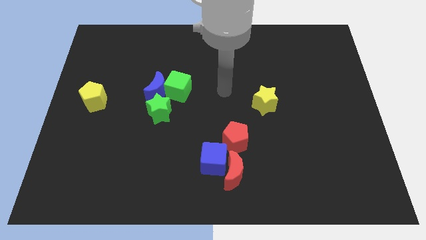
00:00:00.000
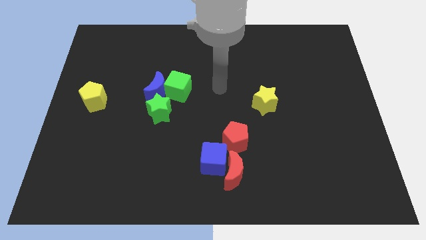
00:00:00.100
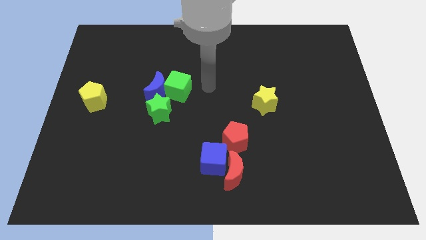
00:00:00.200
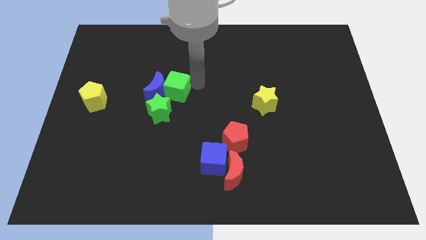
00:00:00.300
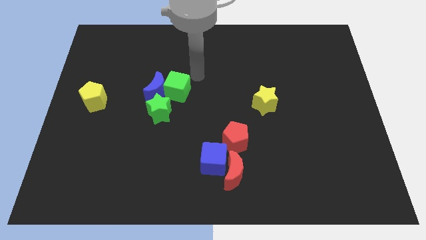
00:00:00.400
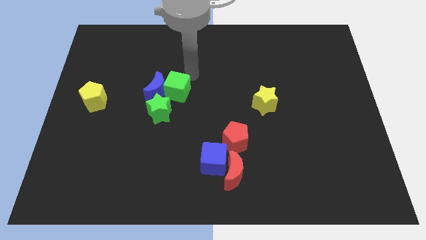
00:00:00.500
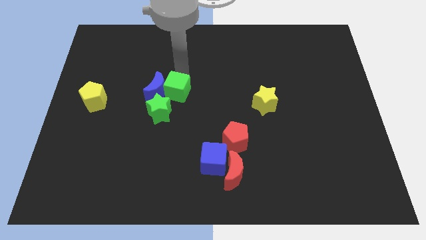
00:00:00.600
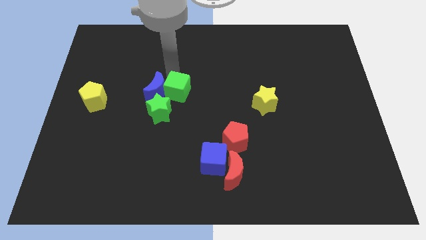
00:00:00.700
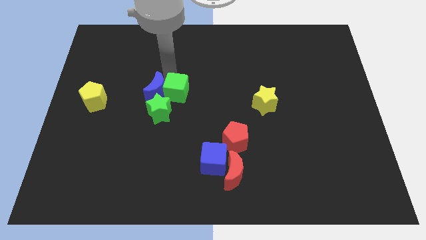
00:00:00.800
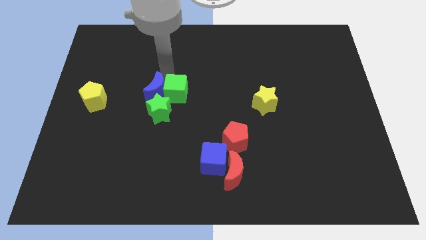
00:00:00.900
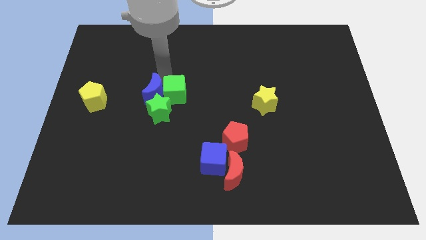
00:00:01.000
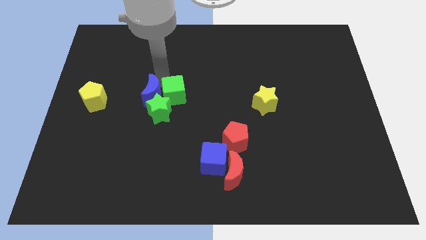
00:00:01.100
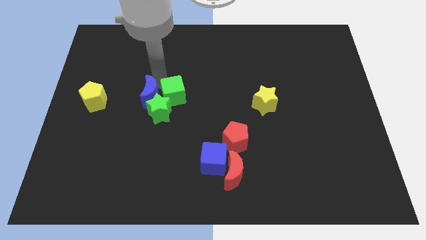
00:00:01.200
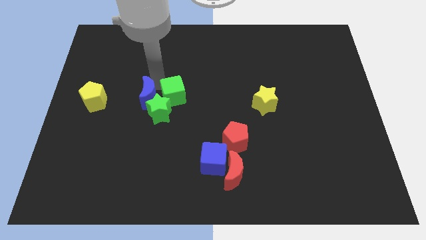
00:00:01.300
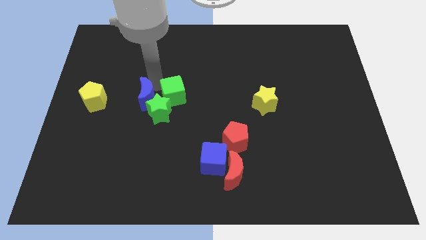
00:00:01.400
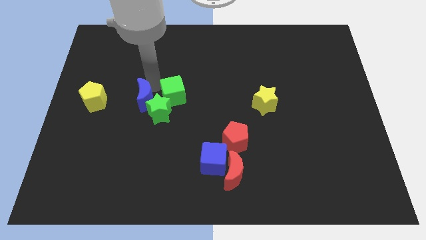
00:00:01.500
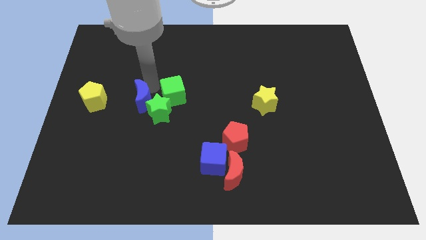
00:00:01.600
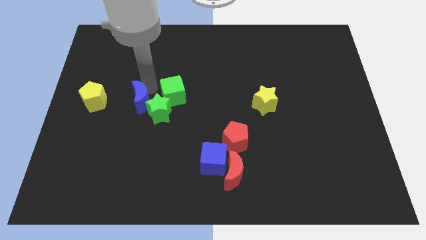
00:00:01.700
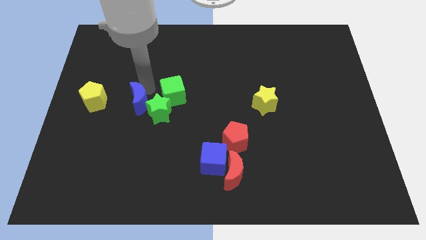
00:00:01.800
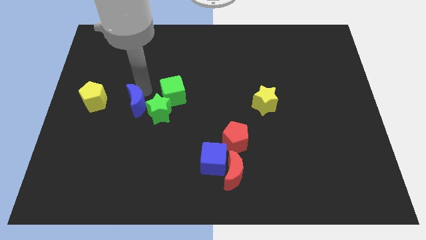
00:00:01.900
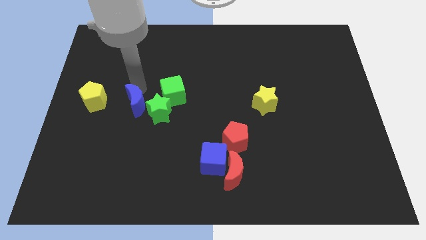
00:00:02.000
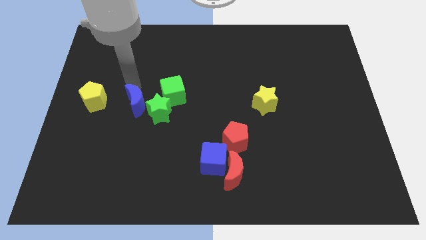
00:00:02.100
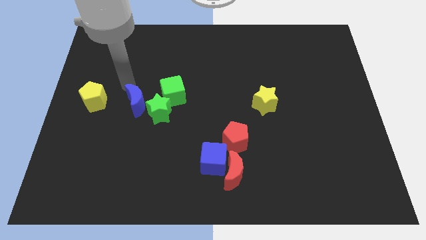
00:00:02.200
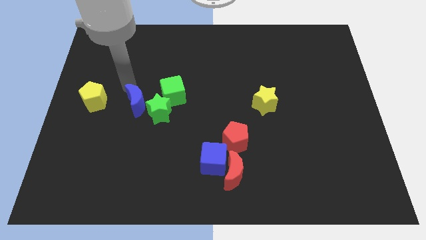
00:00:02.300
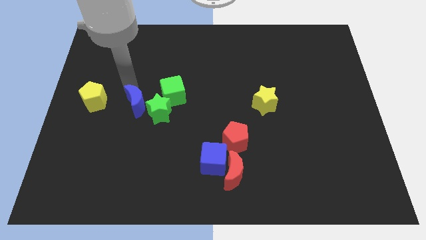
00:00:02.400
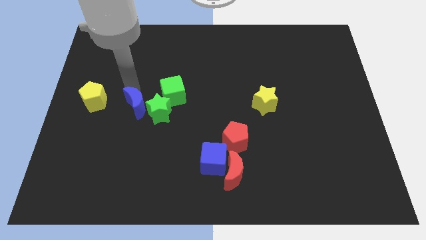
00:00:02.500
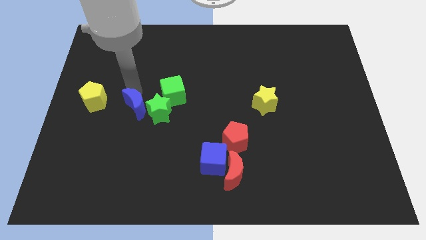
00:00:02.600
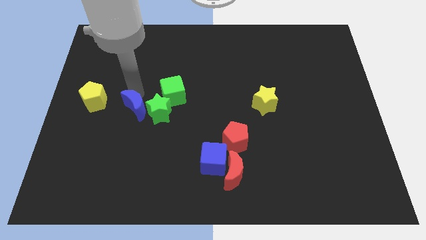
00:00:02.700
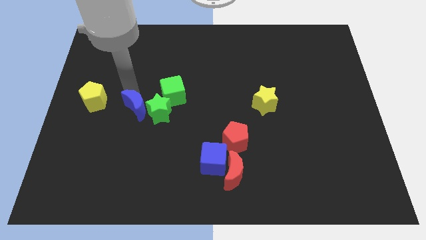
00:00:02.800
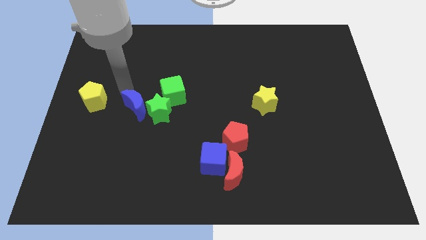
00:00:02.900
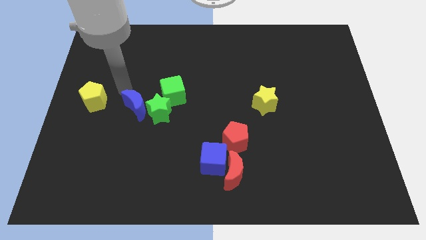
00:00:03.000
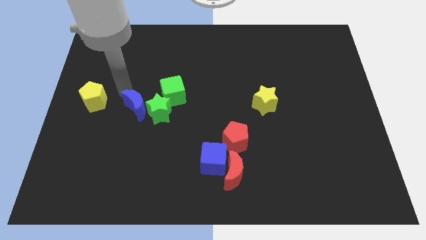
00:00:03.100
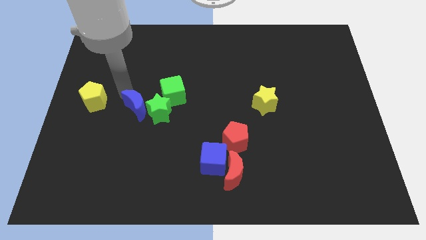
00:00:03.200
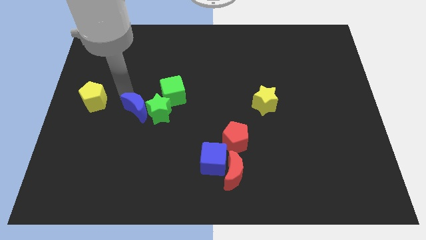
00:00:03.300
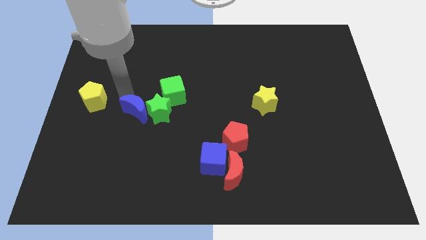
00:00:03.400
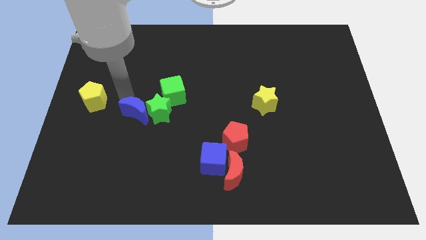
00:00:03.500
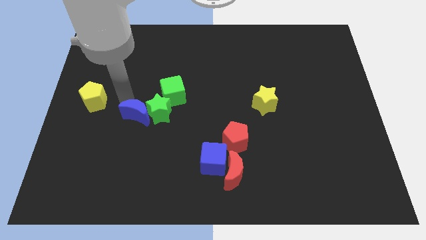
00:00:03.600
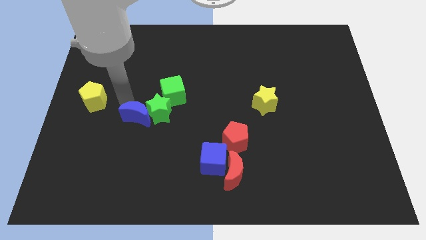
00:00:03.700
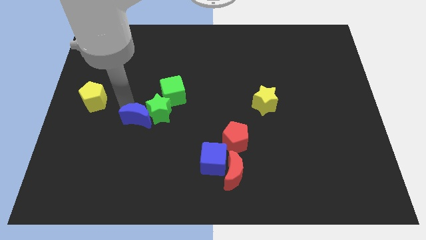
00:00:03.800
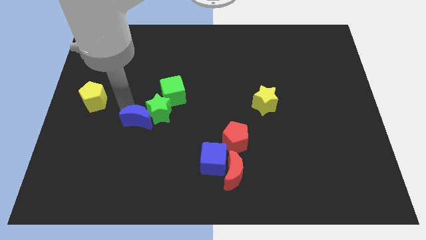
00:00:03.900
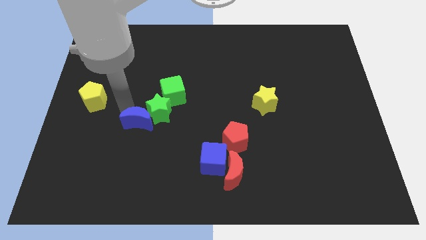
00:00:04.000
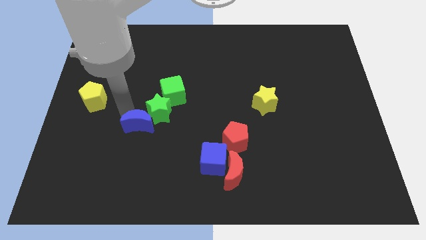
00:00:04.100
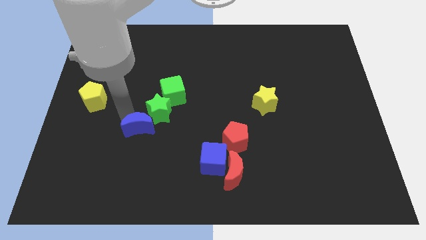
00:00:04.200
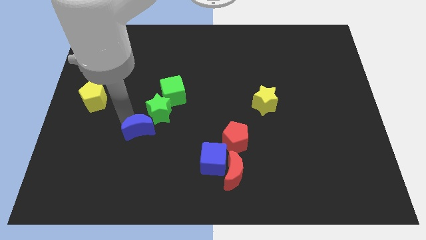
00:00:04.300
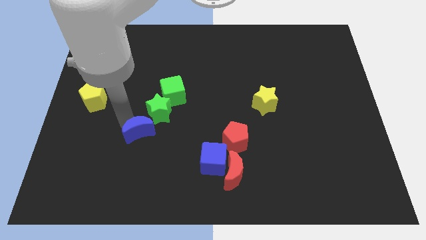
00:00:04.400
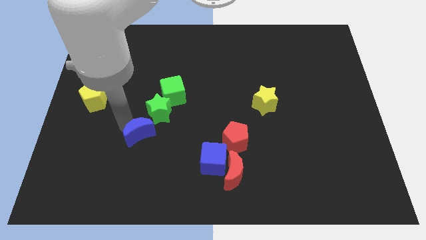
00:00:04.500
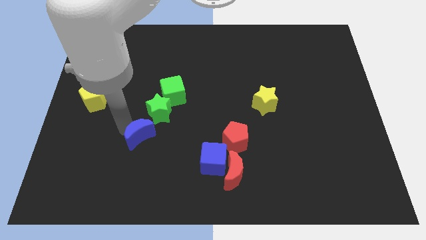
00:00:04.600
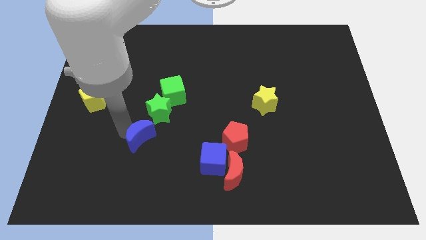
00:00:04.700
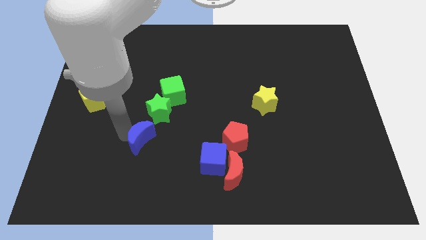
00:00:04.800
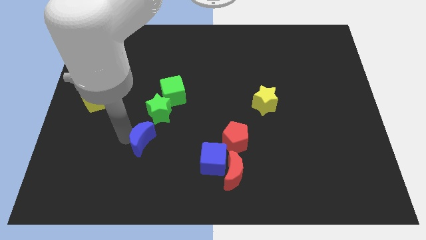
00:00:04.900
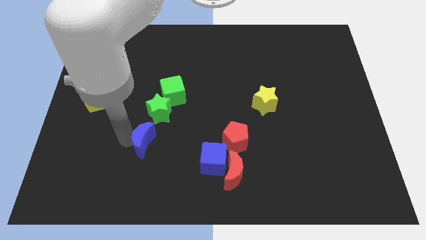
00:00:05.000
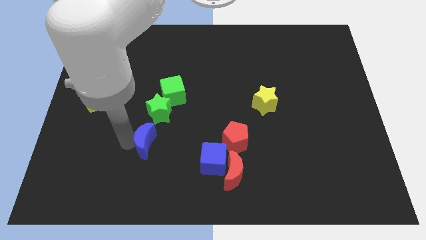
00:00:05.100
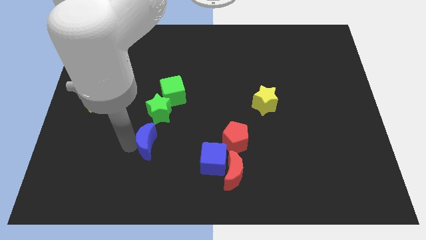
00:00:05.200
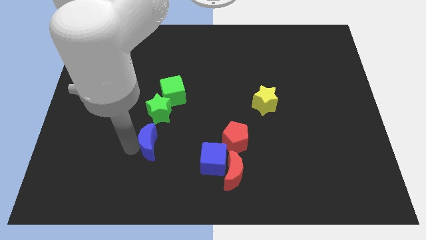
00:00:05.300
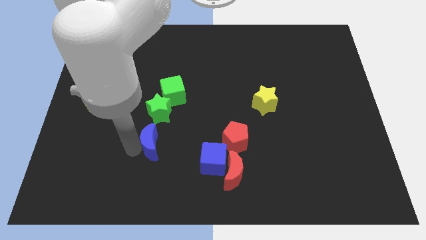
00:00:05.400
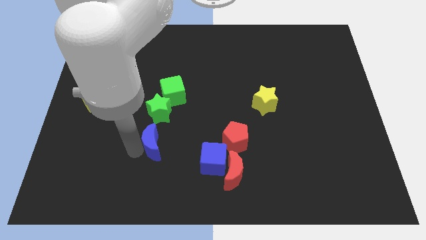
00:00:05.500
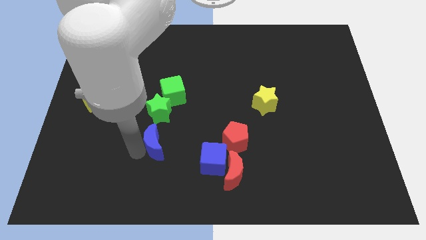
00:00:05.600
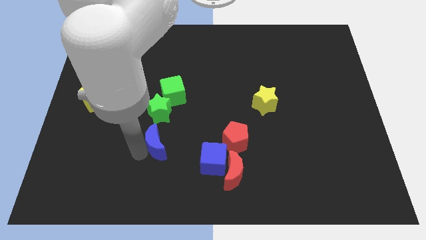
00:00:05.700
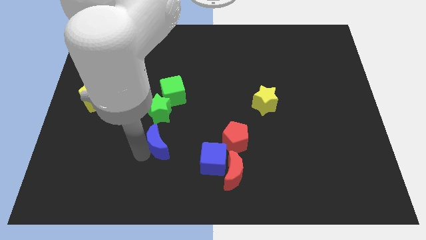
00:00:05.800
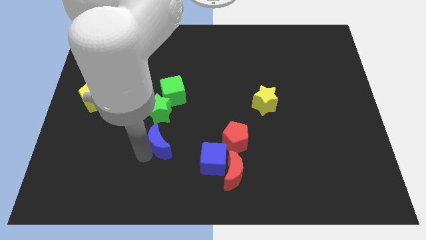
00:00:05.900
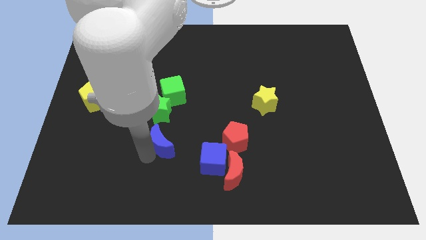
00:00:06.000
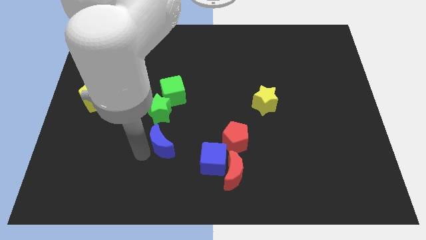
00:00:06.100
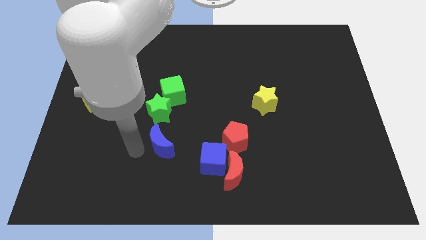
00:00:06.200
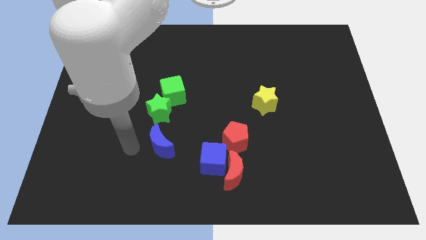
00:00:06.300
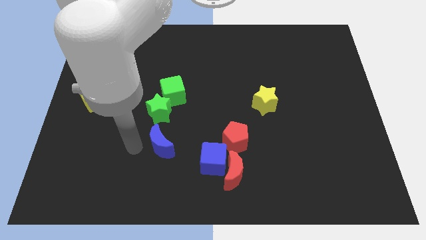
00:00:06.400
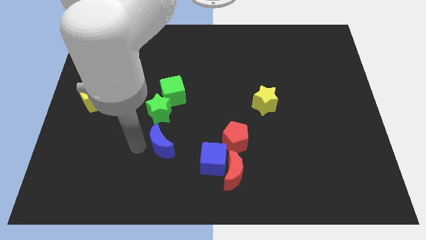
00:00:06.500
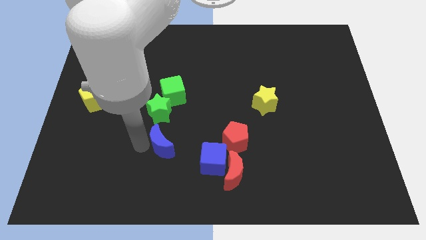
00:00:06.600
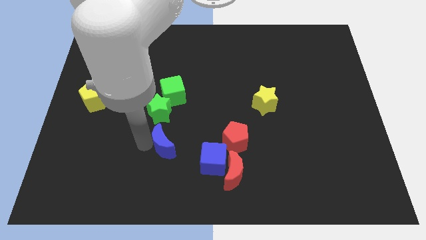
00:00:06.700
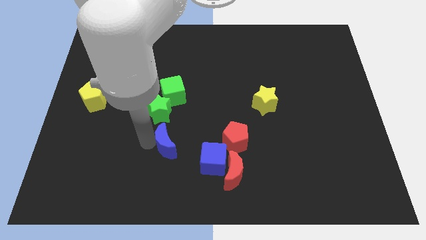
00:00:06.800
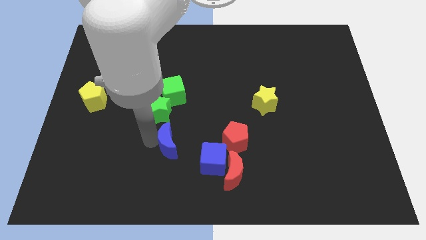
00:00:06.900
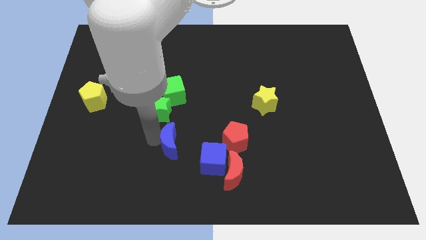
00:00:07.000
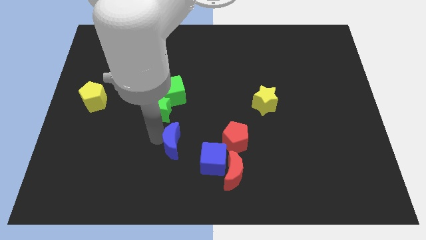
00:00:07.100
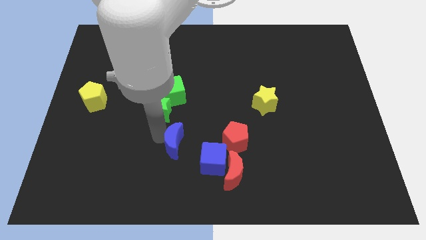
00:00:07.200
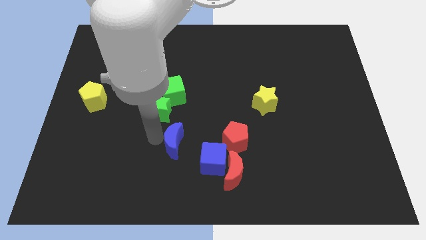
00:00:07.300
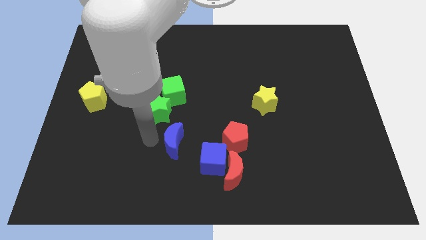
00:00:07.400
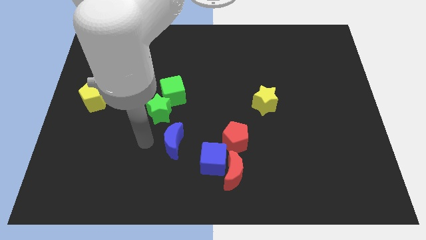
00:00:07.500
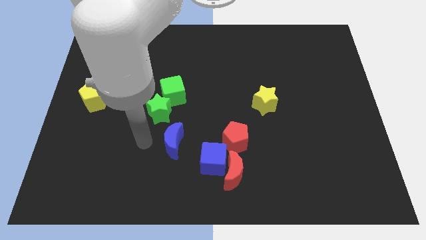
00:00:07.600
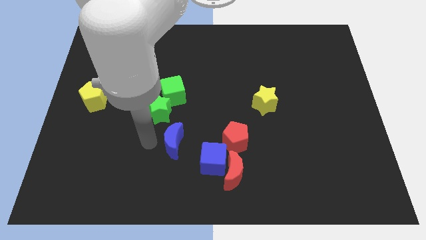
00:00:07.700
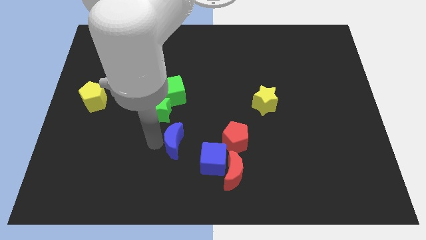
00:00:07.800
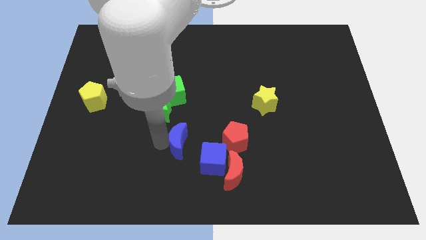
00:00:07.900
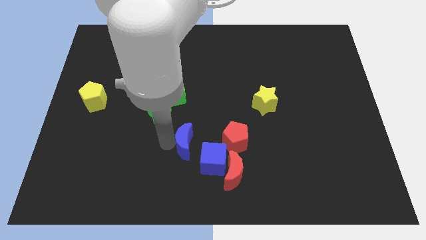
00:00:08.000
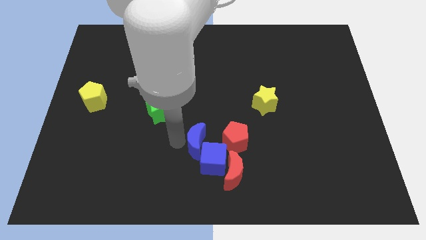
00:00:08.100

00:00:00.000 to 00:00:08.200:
slide the blue moon next to the blue cube
